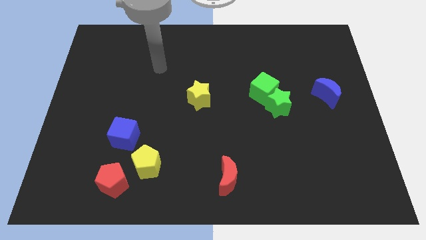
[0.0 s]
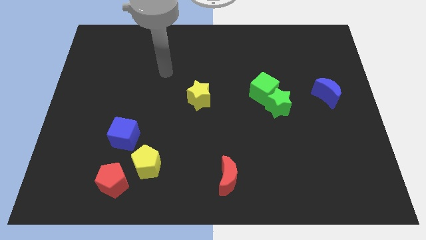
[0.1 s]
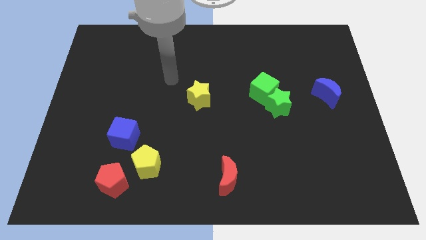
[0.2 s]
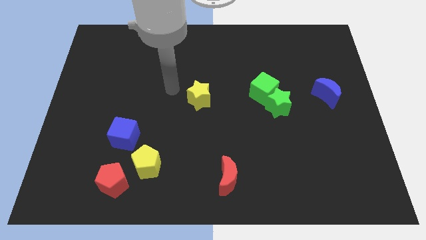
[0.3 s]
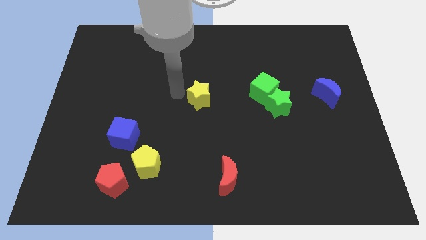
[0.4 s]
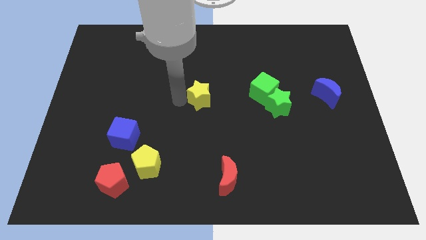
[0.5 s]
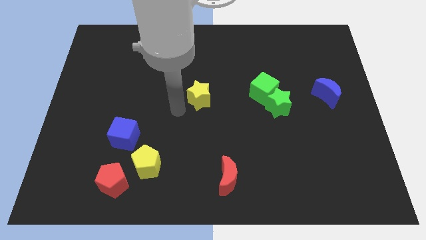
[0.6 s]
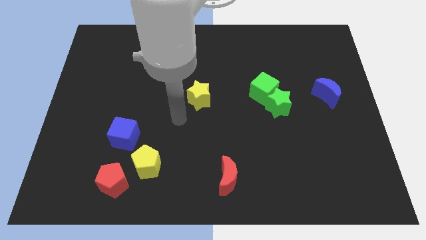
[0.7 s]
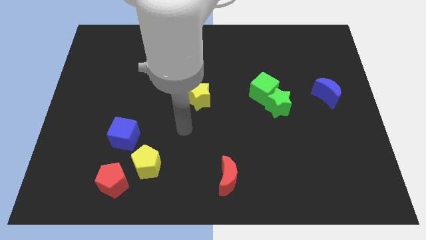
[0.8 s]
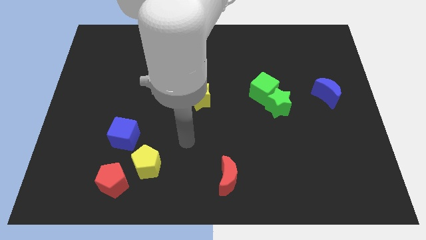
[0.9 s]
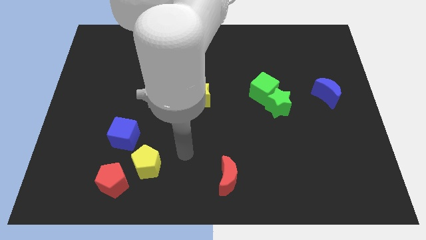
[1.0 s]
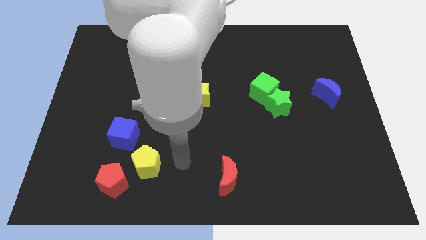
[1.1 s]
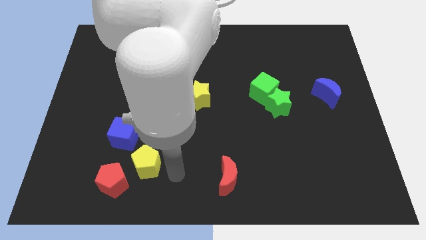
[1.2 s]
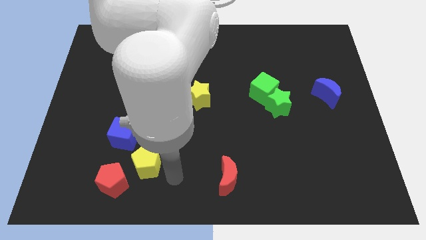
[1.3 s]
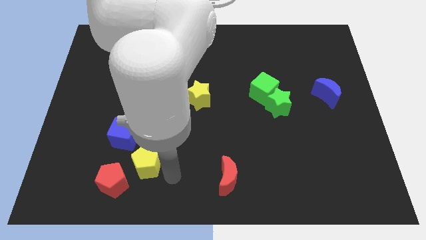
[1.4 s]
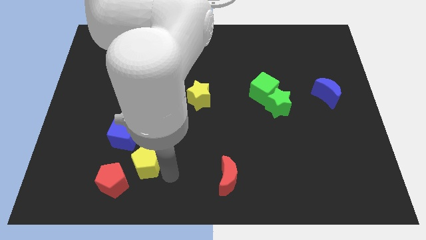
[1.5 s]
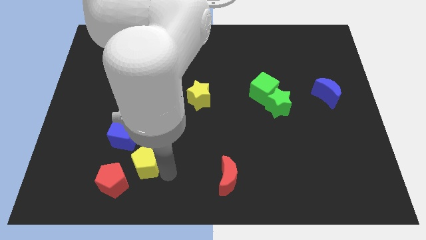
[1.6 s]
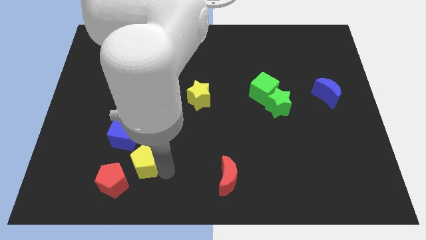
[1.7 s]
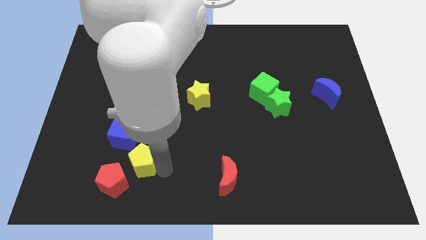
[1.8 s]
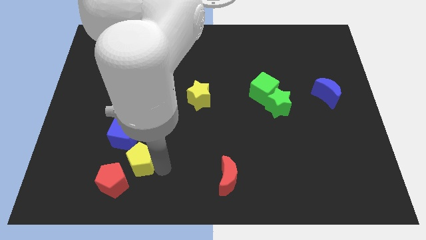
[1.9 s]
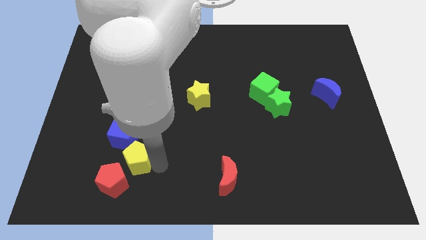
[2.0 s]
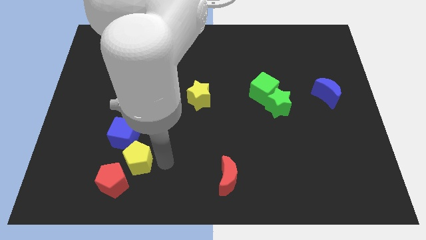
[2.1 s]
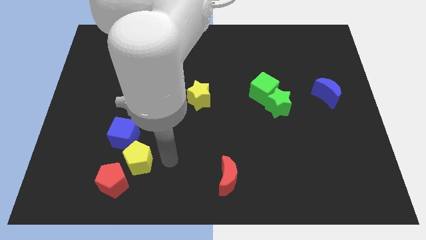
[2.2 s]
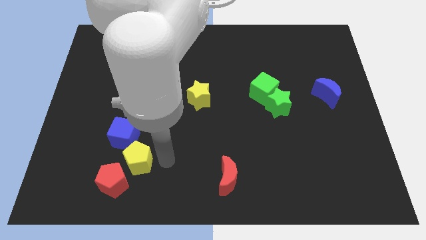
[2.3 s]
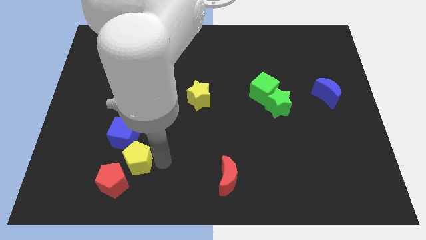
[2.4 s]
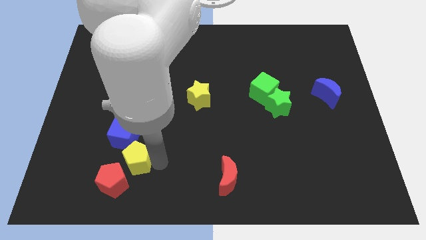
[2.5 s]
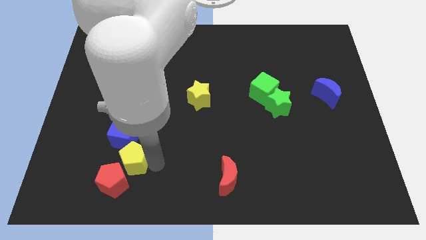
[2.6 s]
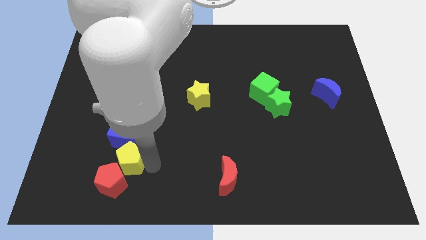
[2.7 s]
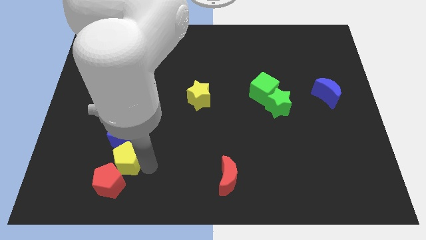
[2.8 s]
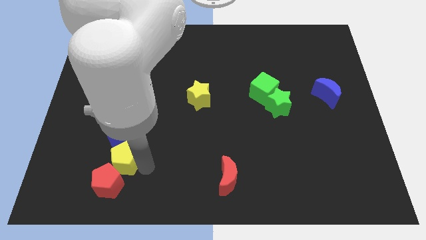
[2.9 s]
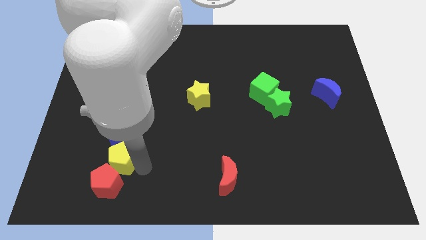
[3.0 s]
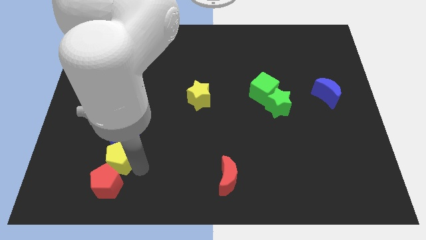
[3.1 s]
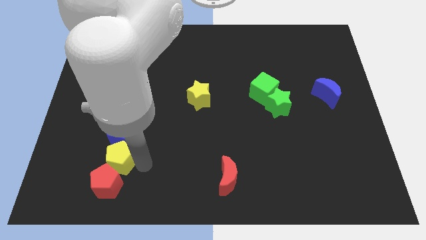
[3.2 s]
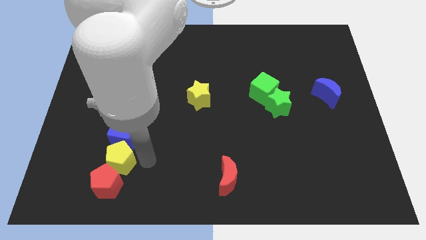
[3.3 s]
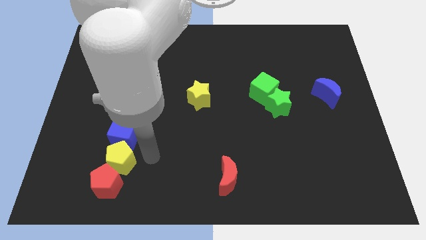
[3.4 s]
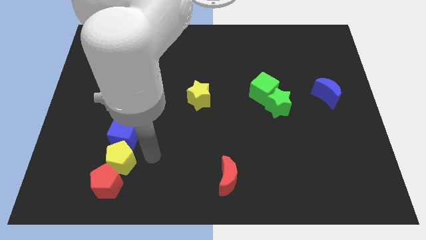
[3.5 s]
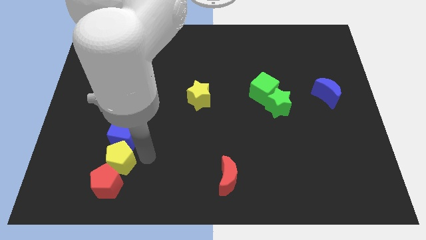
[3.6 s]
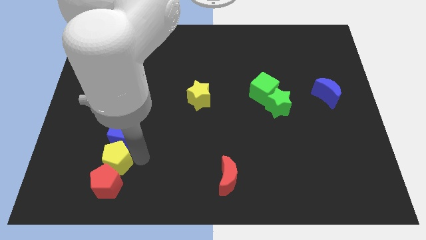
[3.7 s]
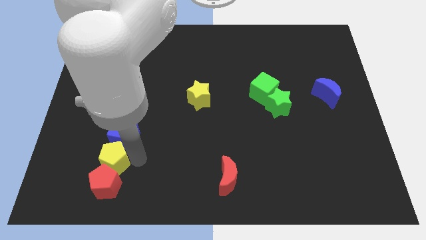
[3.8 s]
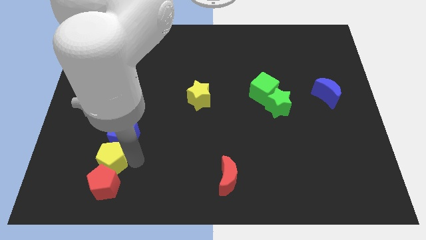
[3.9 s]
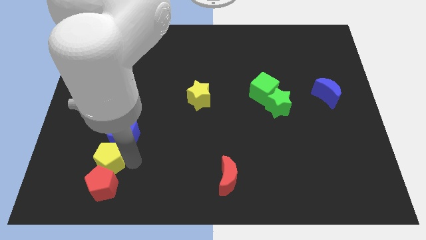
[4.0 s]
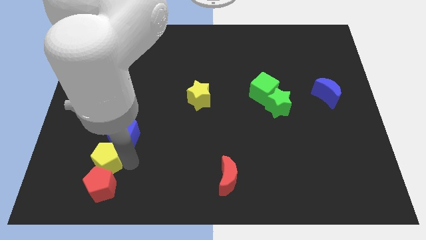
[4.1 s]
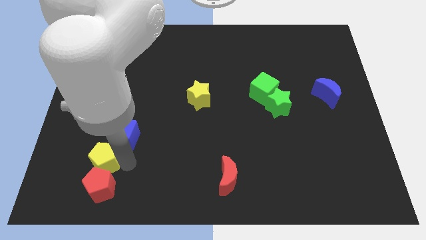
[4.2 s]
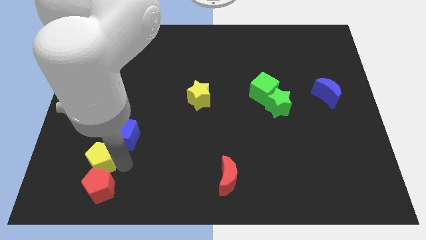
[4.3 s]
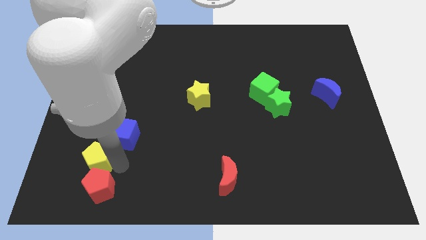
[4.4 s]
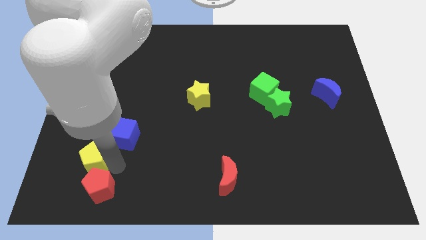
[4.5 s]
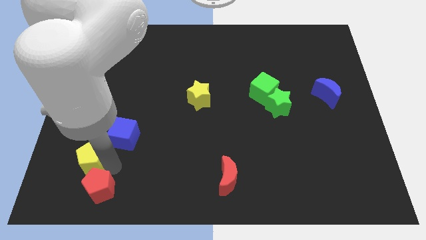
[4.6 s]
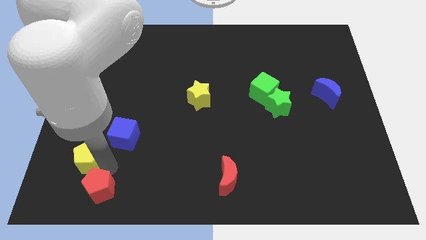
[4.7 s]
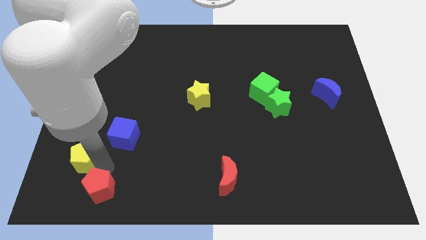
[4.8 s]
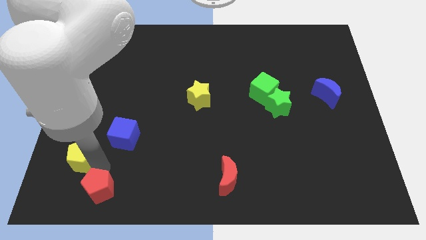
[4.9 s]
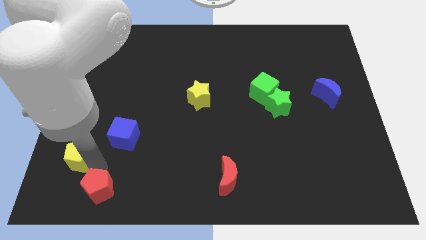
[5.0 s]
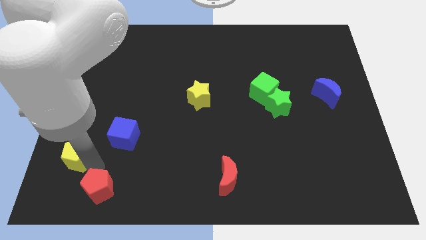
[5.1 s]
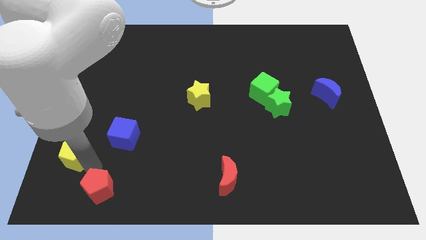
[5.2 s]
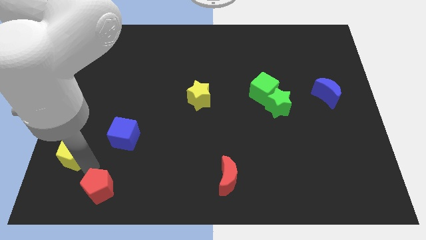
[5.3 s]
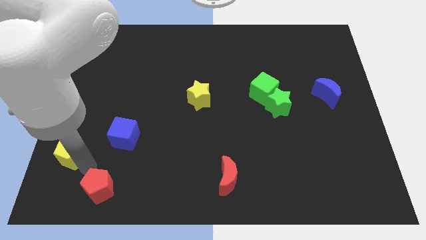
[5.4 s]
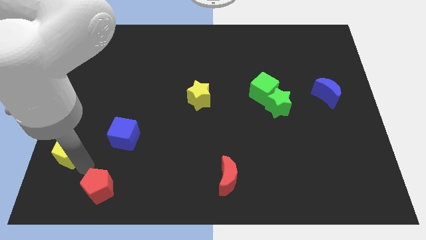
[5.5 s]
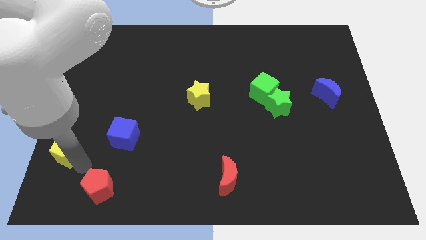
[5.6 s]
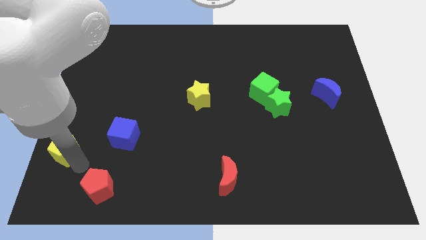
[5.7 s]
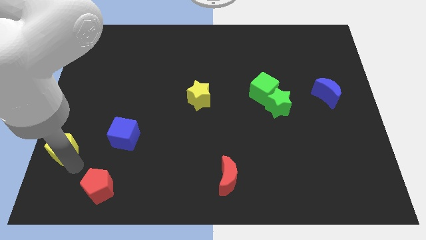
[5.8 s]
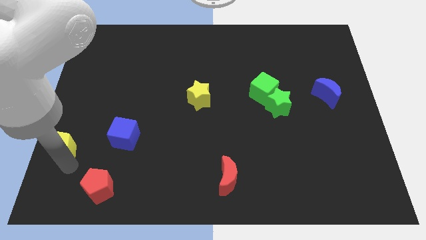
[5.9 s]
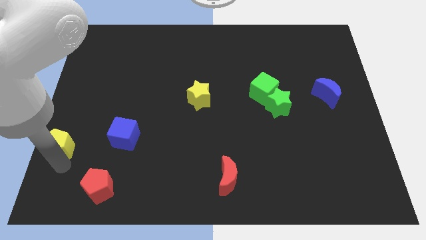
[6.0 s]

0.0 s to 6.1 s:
put the yellow pentagon to the left side of the board
